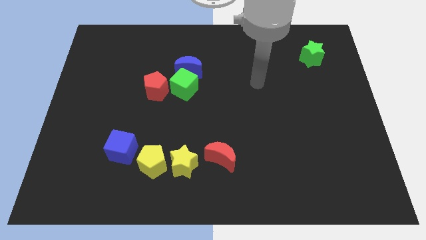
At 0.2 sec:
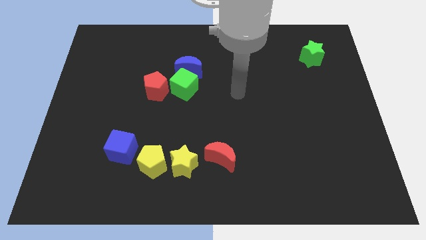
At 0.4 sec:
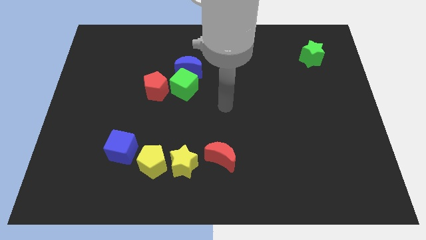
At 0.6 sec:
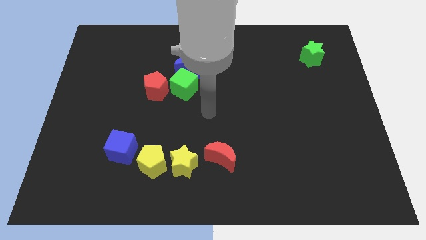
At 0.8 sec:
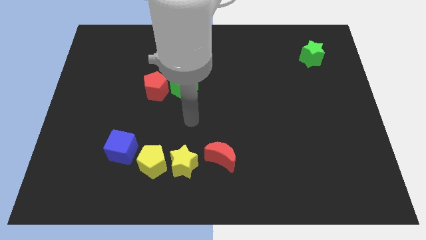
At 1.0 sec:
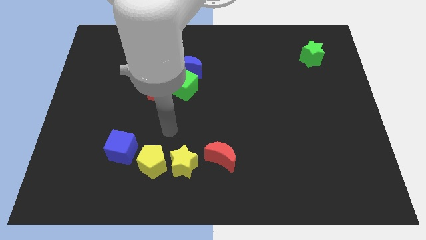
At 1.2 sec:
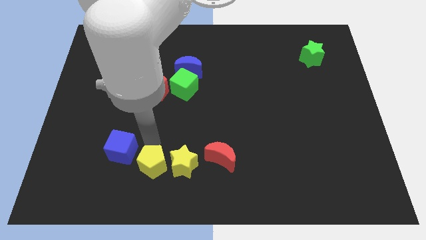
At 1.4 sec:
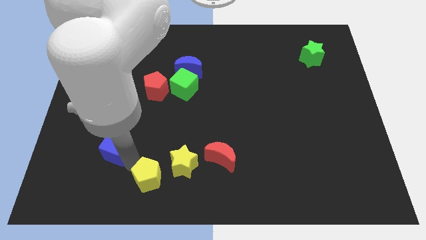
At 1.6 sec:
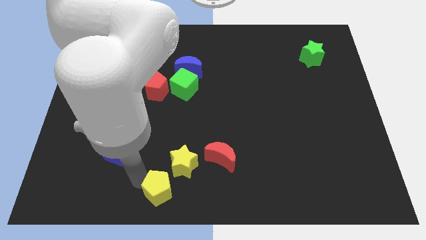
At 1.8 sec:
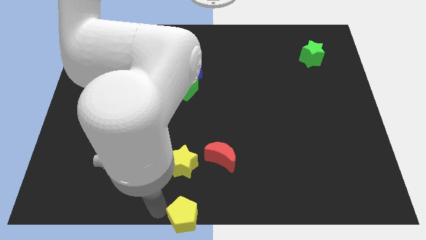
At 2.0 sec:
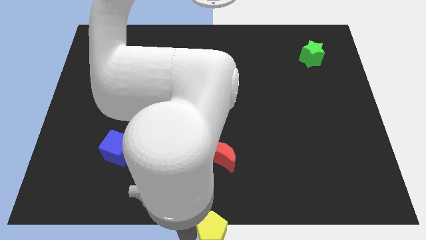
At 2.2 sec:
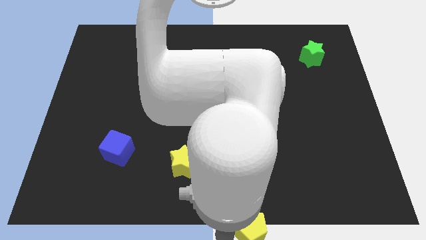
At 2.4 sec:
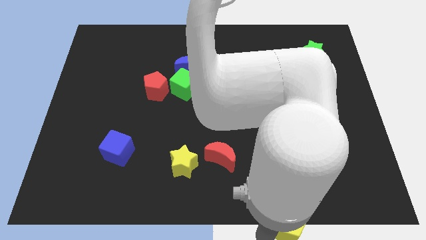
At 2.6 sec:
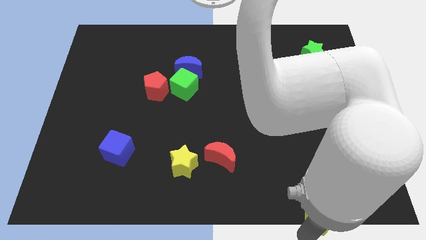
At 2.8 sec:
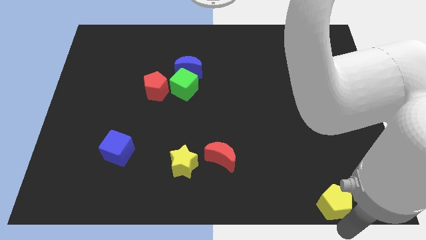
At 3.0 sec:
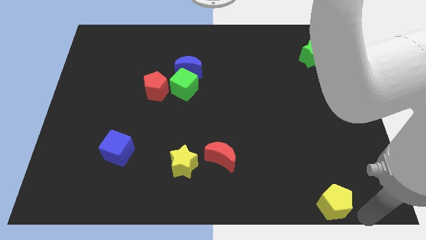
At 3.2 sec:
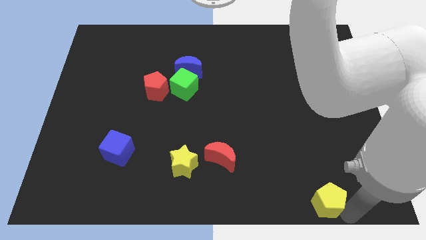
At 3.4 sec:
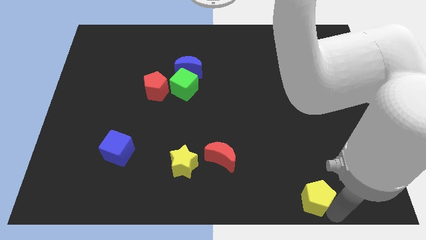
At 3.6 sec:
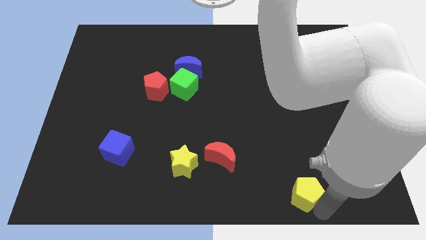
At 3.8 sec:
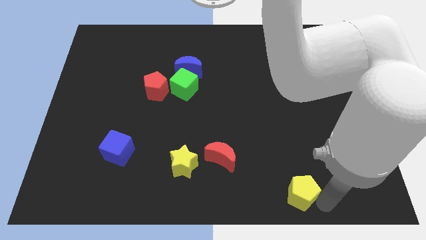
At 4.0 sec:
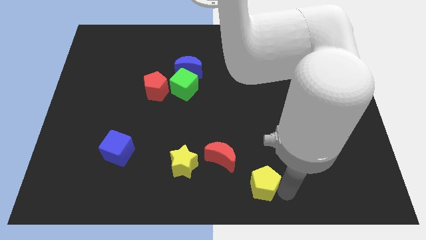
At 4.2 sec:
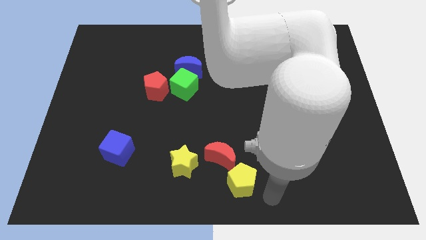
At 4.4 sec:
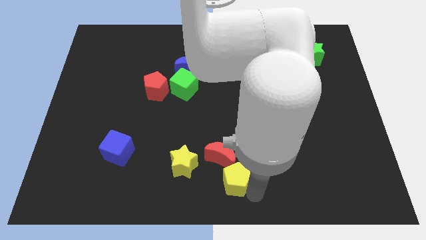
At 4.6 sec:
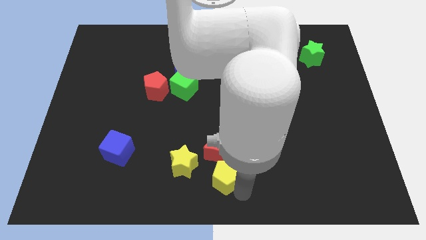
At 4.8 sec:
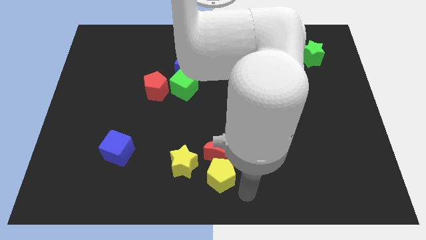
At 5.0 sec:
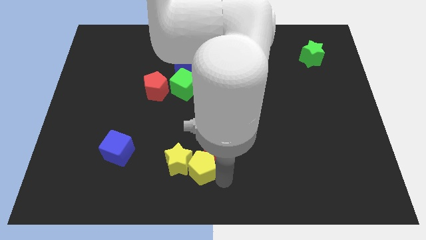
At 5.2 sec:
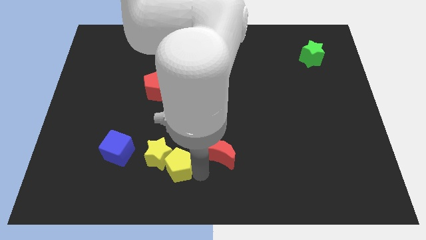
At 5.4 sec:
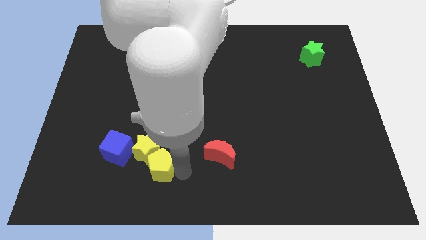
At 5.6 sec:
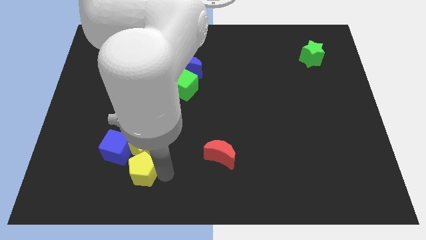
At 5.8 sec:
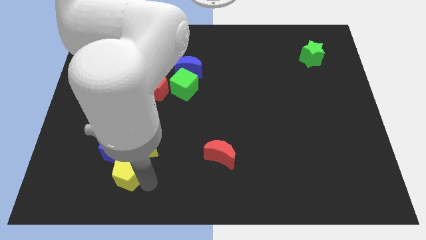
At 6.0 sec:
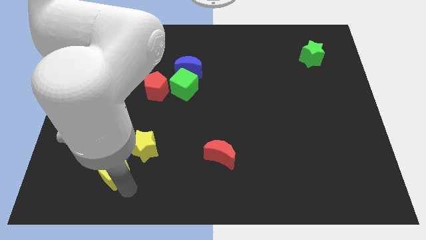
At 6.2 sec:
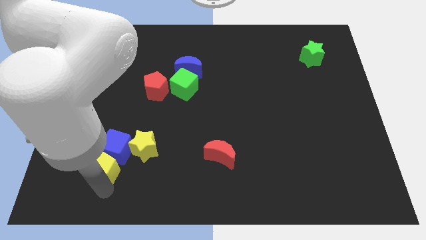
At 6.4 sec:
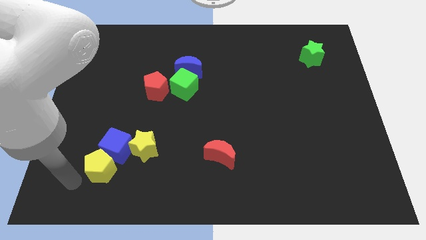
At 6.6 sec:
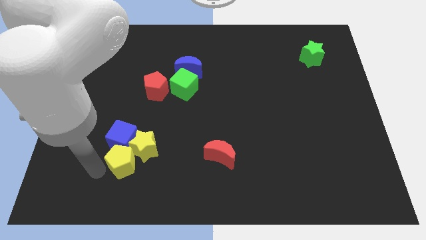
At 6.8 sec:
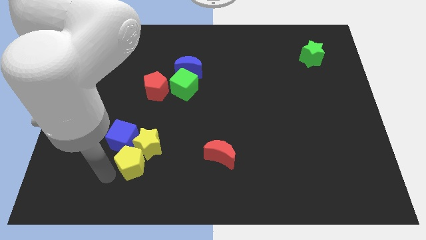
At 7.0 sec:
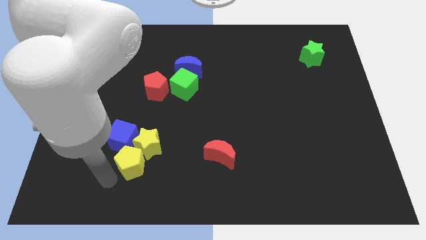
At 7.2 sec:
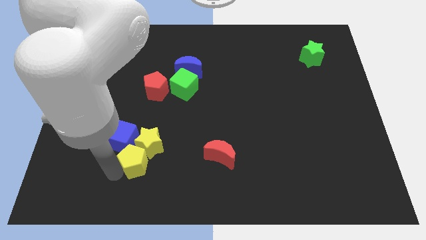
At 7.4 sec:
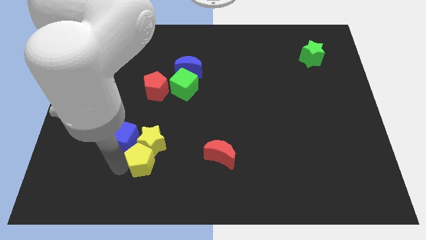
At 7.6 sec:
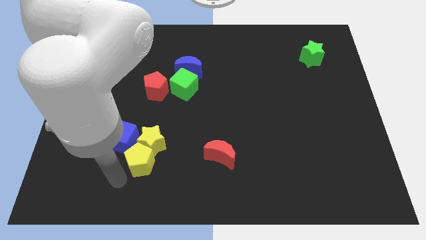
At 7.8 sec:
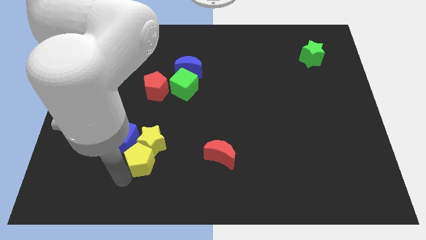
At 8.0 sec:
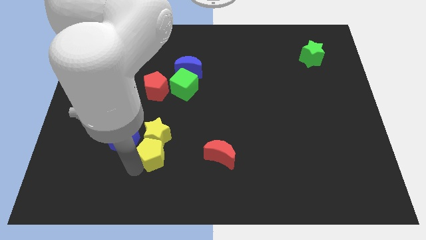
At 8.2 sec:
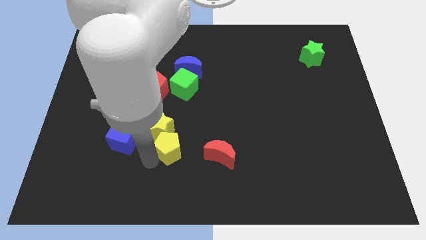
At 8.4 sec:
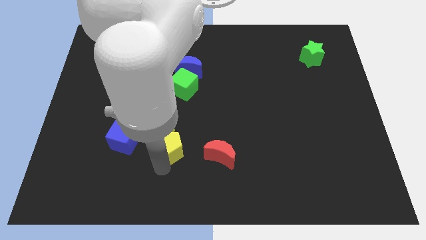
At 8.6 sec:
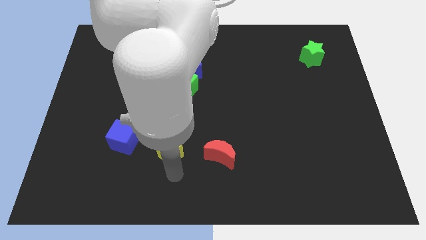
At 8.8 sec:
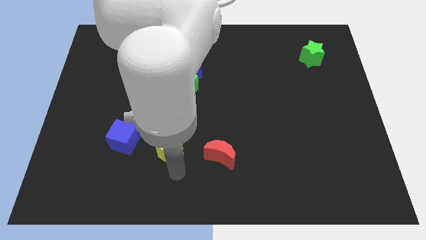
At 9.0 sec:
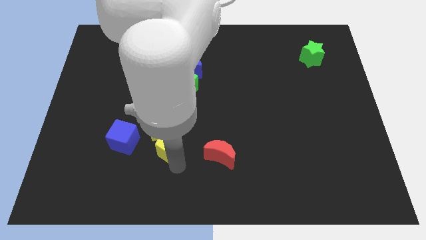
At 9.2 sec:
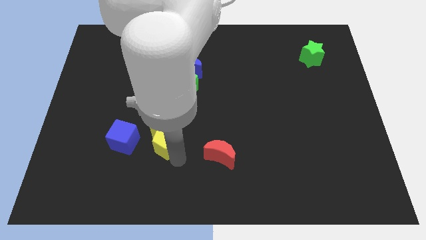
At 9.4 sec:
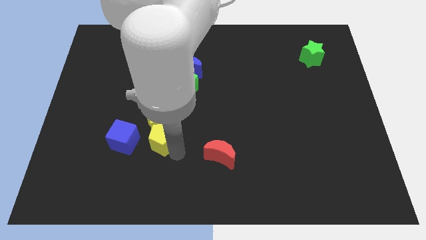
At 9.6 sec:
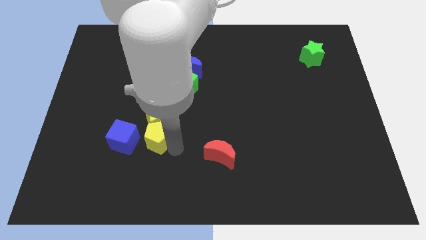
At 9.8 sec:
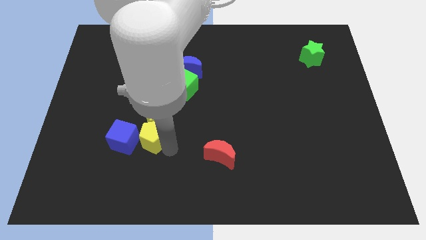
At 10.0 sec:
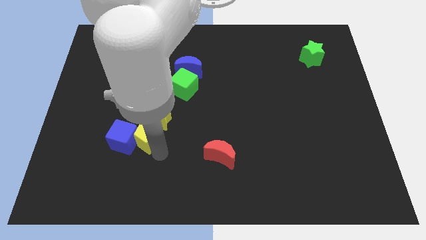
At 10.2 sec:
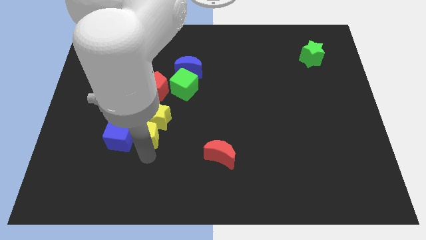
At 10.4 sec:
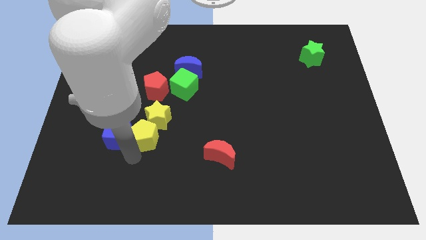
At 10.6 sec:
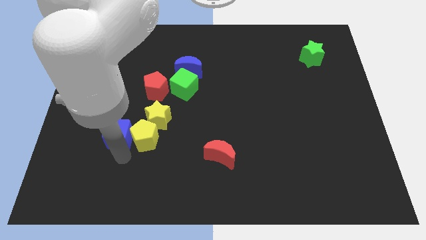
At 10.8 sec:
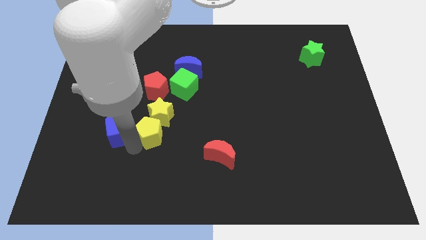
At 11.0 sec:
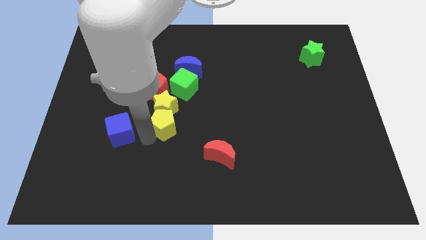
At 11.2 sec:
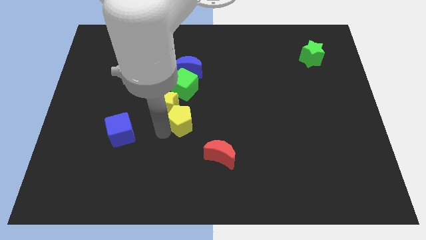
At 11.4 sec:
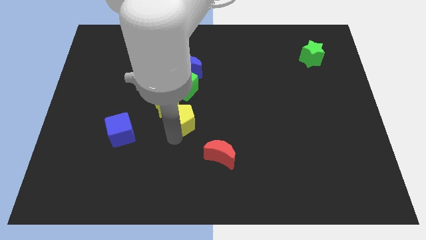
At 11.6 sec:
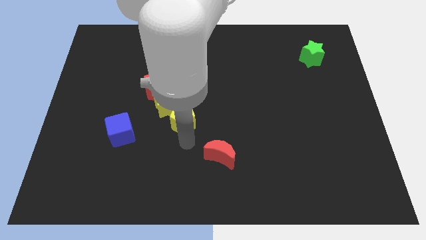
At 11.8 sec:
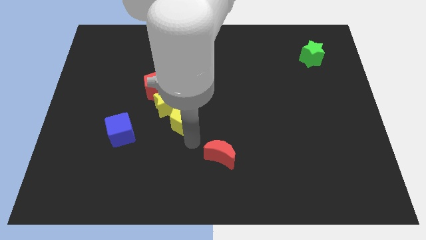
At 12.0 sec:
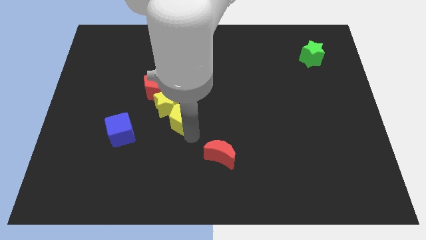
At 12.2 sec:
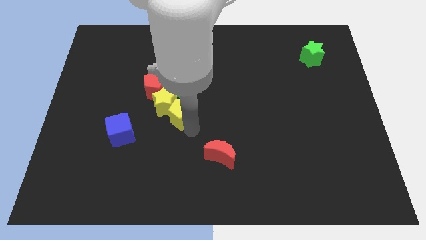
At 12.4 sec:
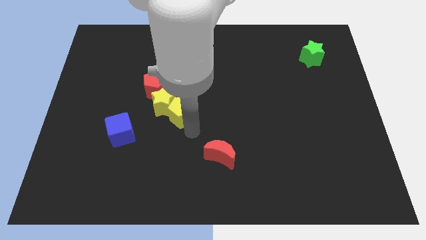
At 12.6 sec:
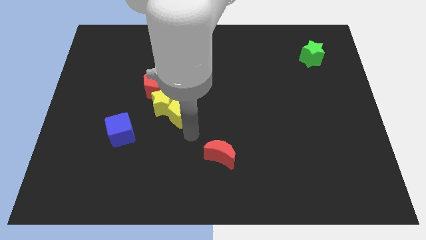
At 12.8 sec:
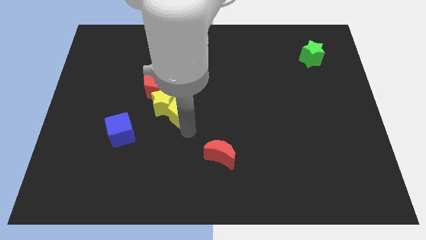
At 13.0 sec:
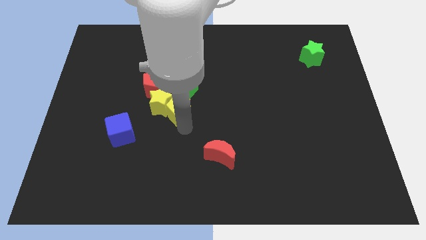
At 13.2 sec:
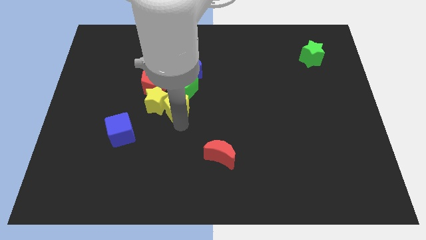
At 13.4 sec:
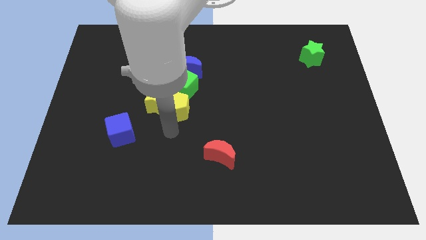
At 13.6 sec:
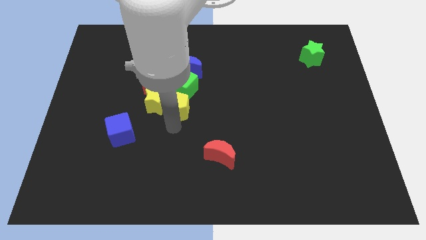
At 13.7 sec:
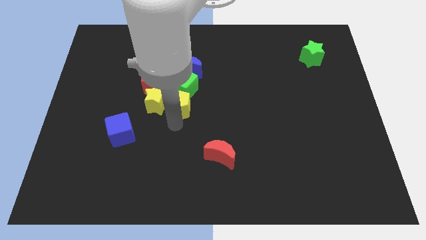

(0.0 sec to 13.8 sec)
move the yellow pentagon close to the green cube

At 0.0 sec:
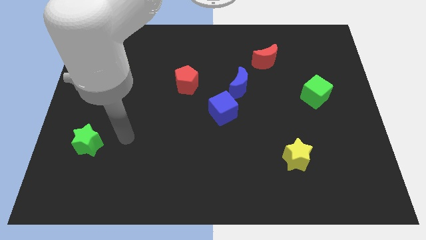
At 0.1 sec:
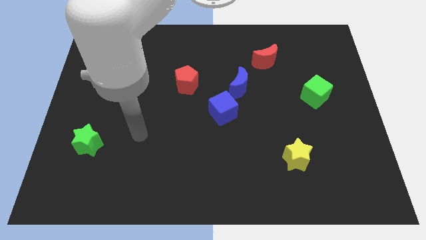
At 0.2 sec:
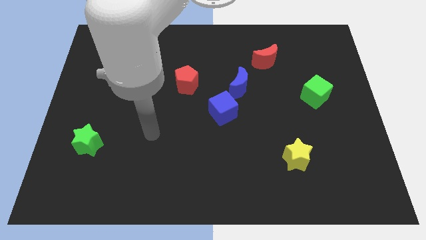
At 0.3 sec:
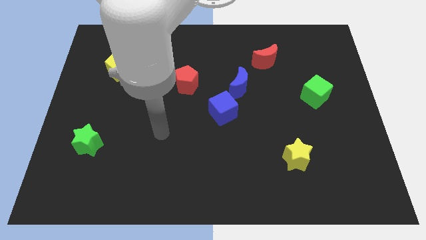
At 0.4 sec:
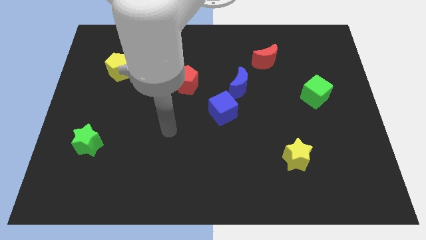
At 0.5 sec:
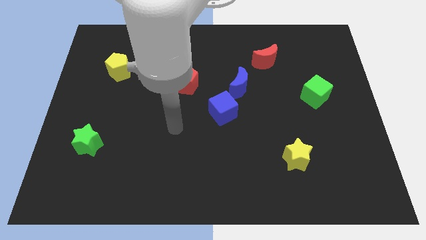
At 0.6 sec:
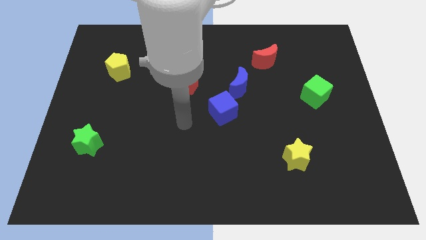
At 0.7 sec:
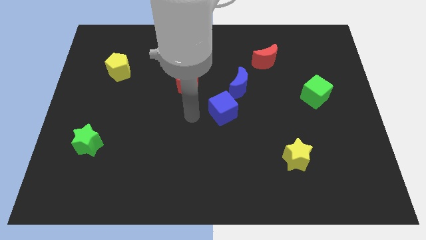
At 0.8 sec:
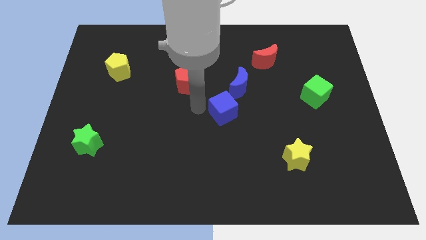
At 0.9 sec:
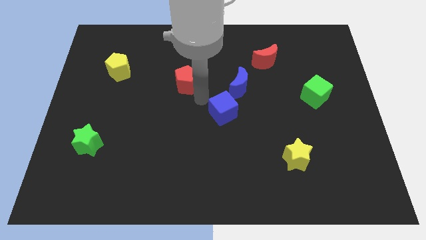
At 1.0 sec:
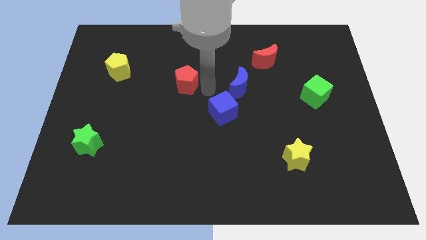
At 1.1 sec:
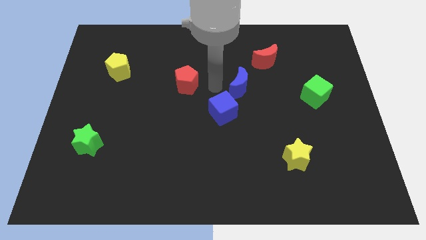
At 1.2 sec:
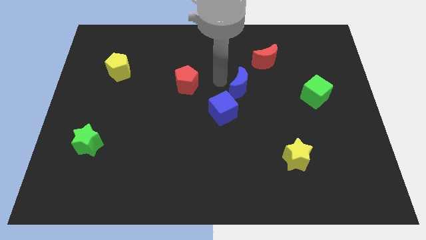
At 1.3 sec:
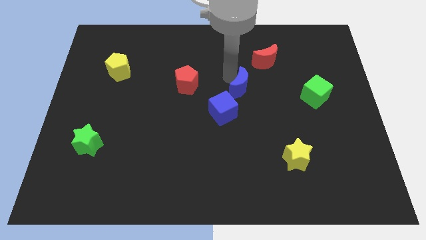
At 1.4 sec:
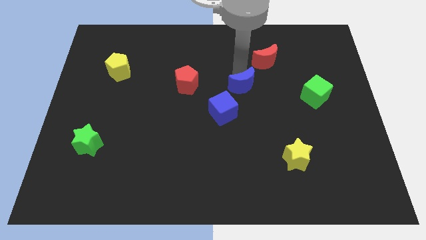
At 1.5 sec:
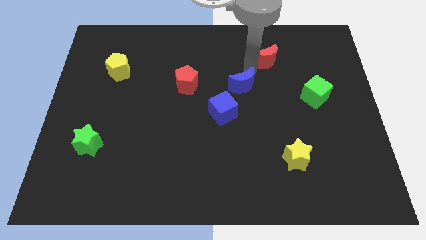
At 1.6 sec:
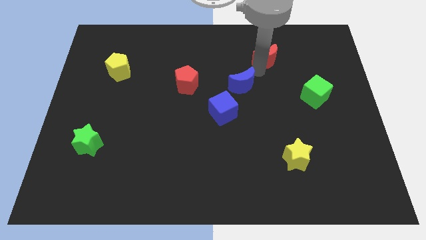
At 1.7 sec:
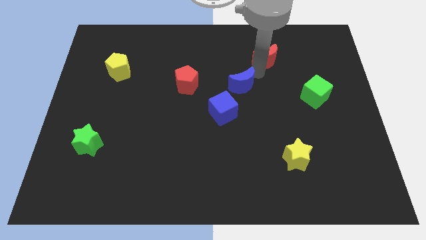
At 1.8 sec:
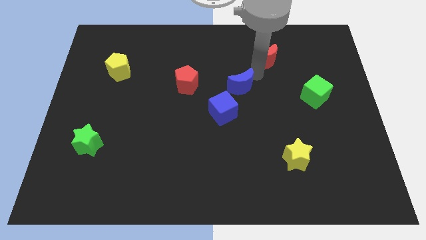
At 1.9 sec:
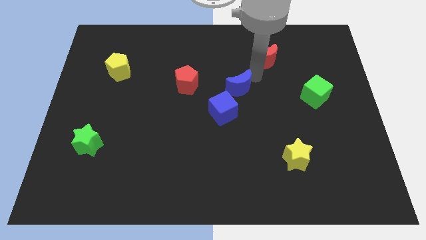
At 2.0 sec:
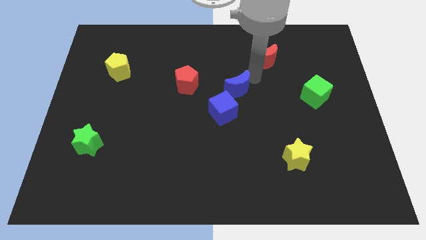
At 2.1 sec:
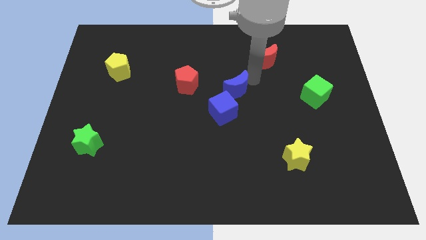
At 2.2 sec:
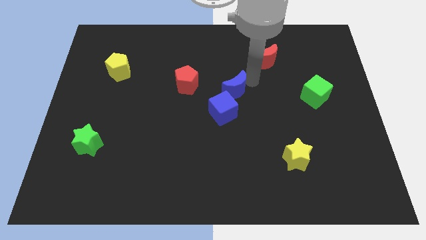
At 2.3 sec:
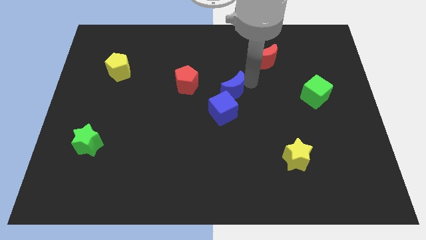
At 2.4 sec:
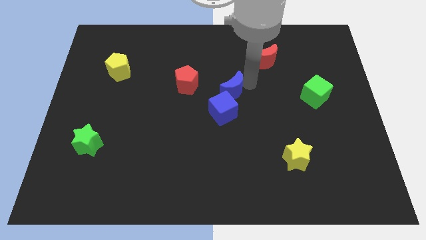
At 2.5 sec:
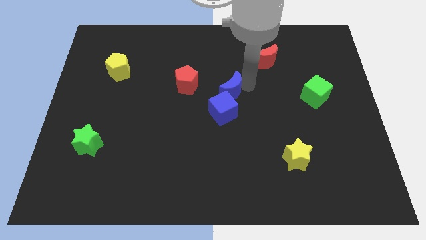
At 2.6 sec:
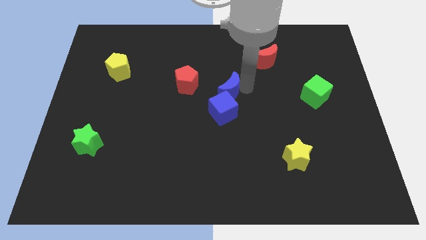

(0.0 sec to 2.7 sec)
slide the blue moon close to the blue cube
